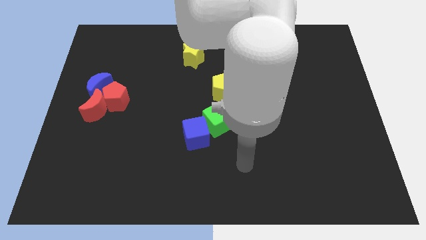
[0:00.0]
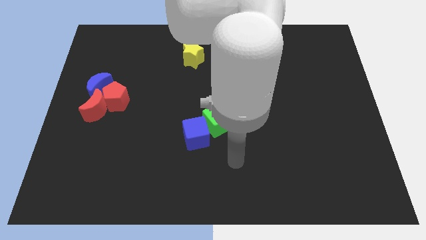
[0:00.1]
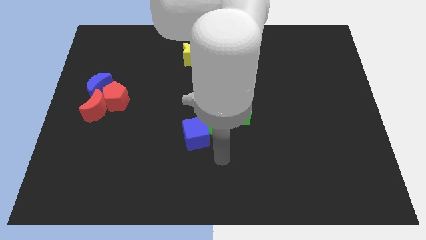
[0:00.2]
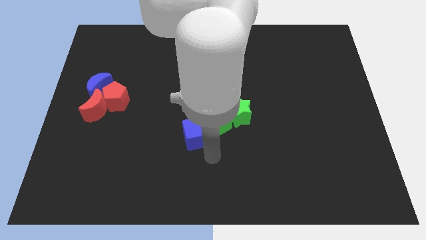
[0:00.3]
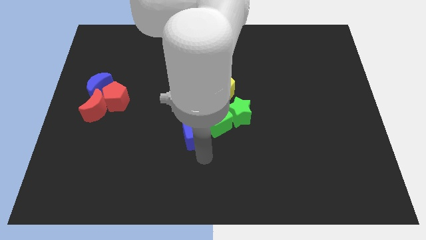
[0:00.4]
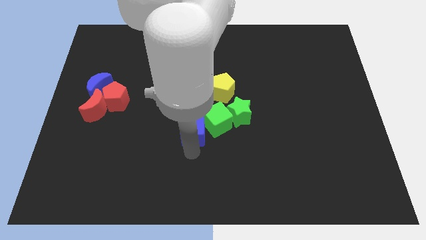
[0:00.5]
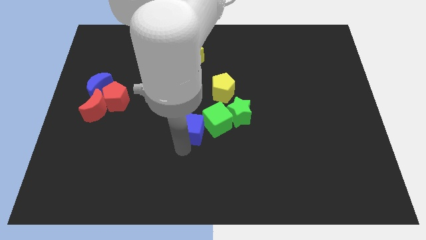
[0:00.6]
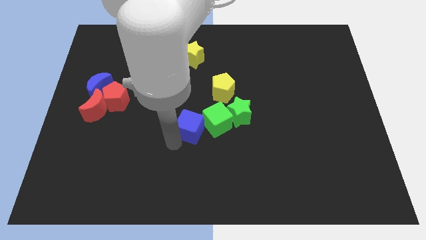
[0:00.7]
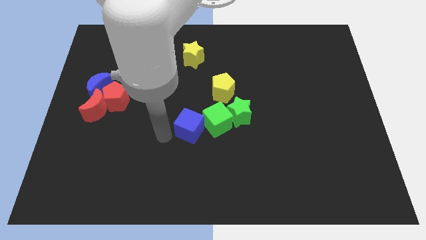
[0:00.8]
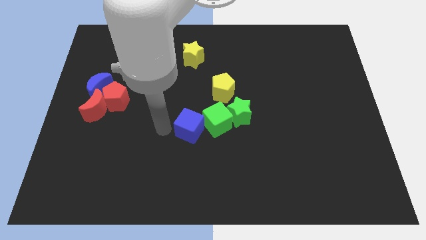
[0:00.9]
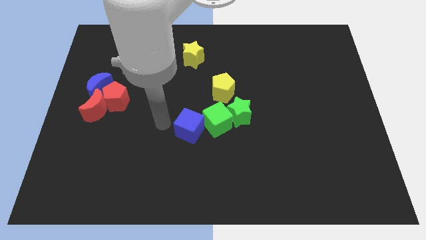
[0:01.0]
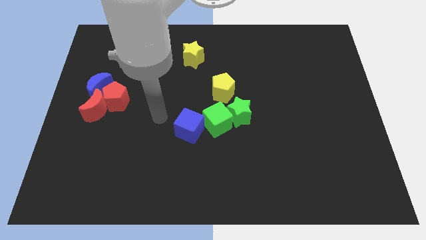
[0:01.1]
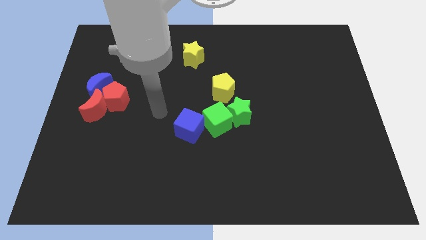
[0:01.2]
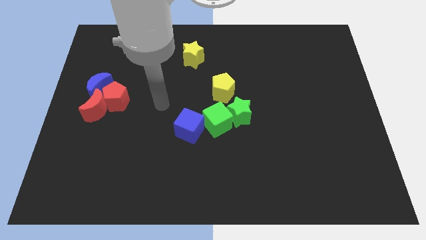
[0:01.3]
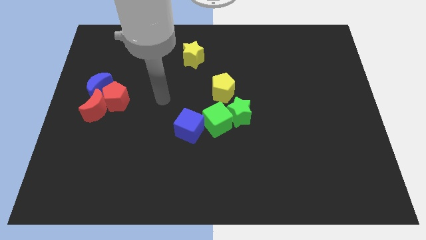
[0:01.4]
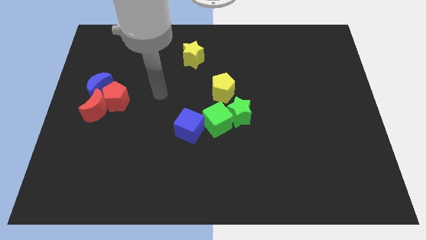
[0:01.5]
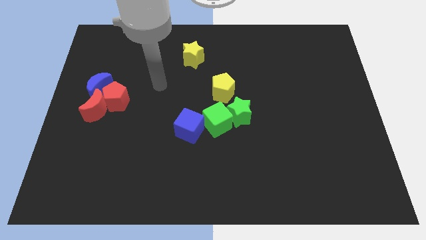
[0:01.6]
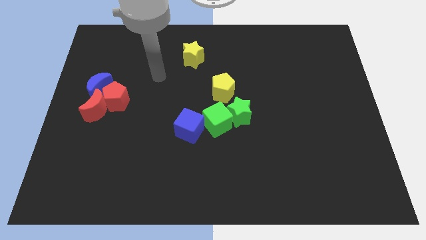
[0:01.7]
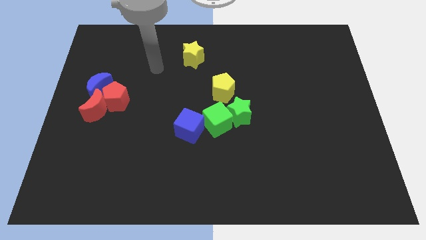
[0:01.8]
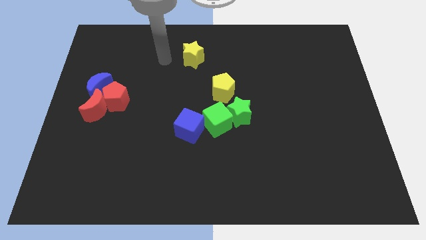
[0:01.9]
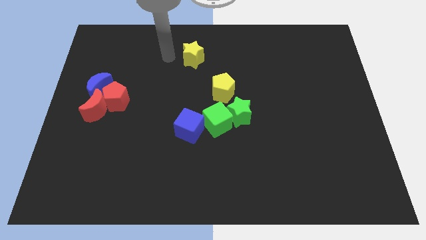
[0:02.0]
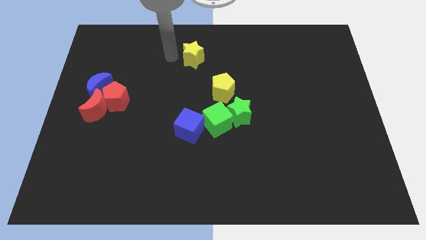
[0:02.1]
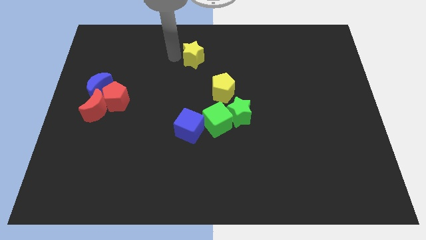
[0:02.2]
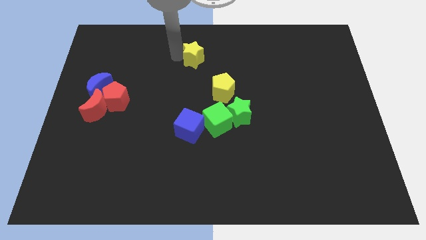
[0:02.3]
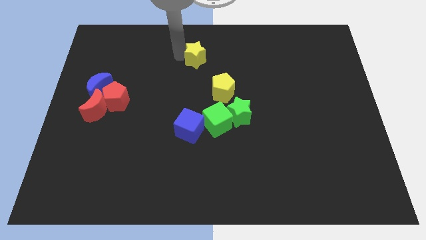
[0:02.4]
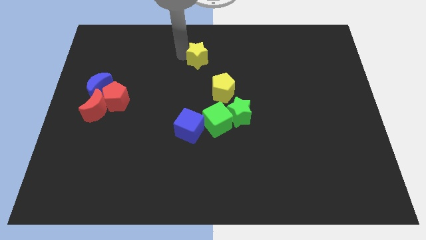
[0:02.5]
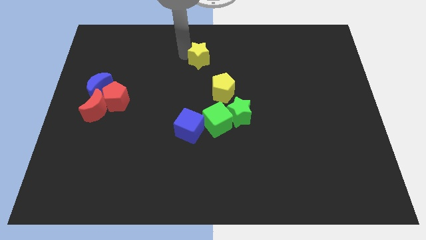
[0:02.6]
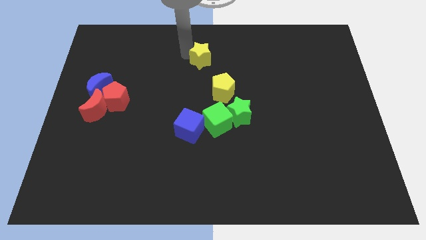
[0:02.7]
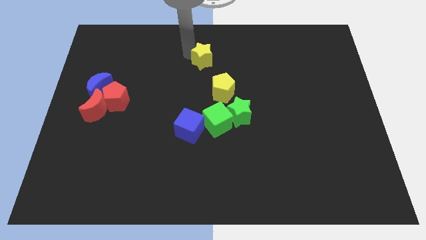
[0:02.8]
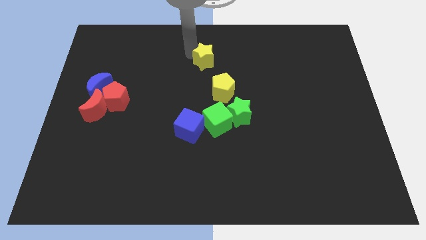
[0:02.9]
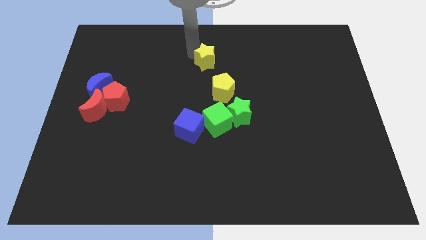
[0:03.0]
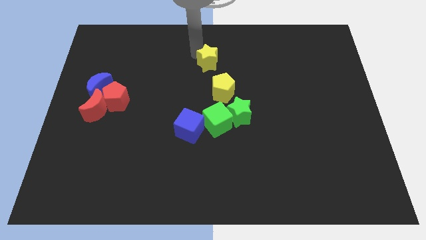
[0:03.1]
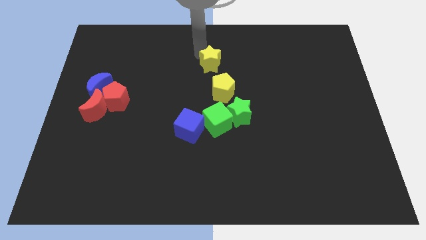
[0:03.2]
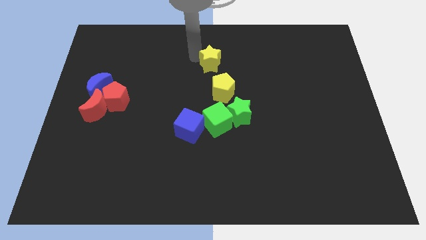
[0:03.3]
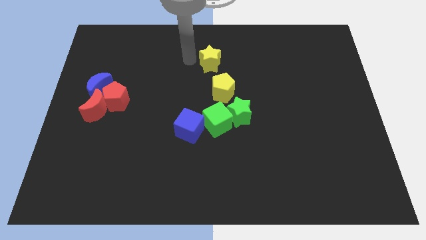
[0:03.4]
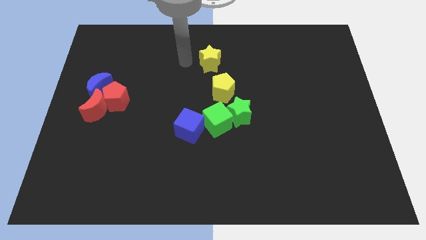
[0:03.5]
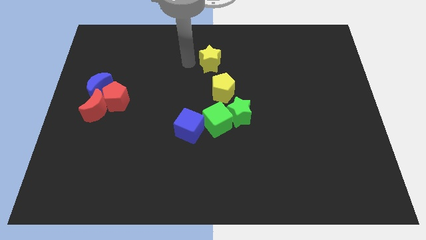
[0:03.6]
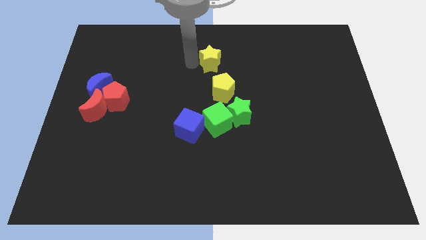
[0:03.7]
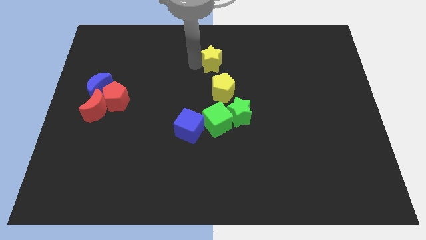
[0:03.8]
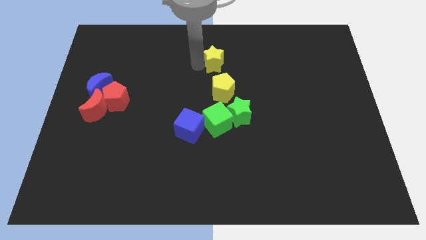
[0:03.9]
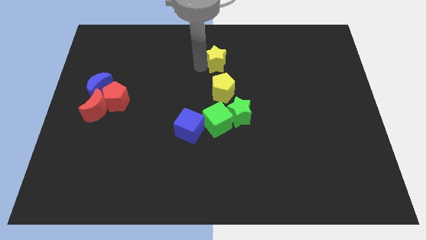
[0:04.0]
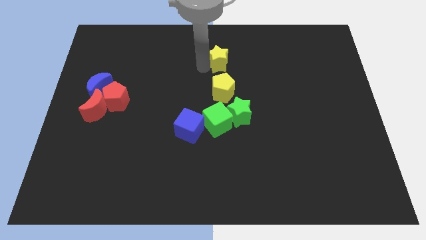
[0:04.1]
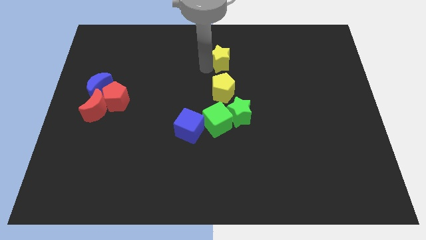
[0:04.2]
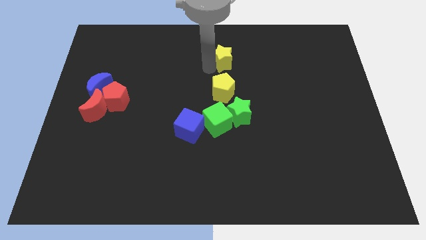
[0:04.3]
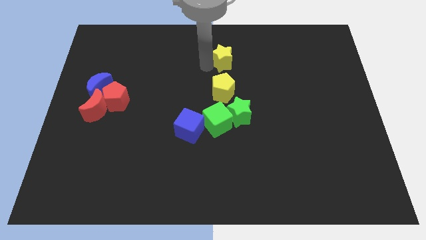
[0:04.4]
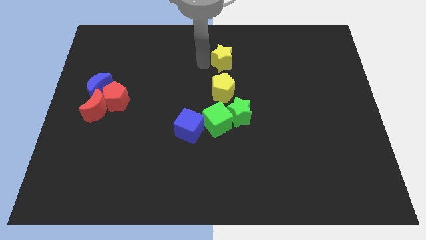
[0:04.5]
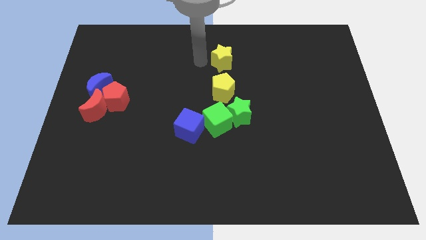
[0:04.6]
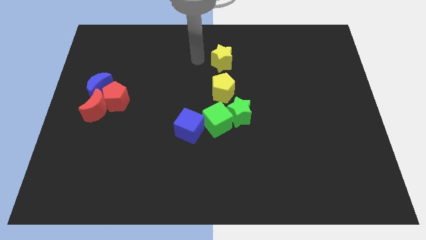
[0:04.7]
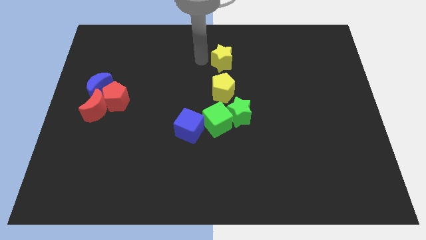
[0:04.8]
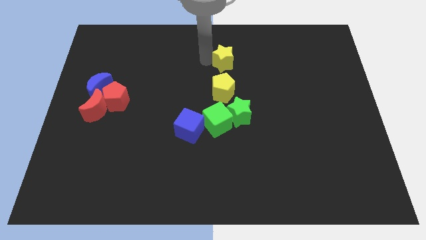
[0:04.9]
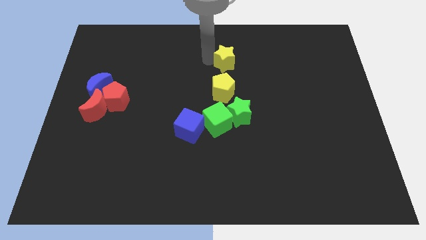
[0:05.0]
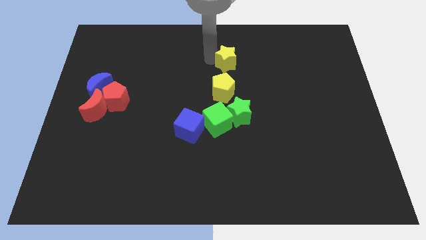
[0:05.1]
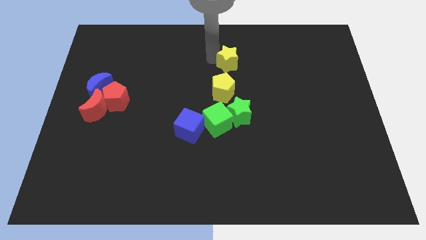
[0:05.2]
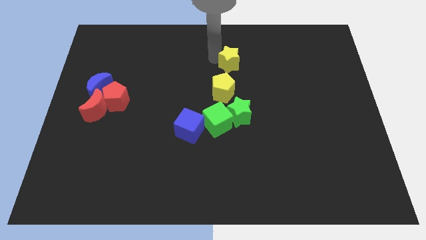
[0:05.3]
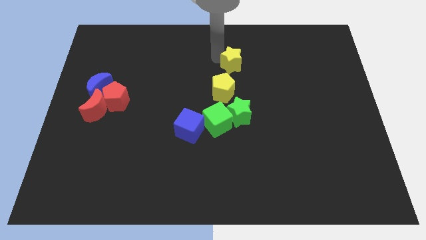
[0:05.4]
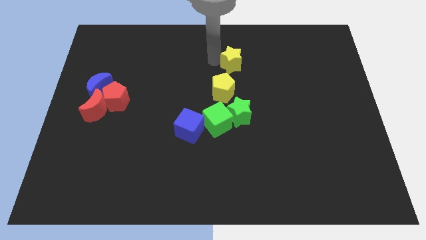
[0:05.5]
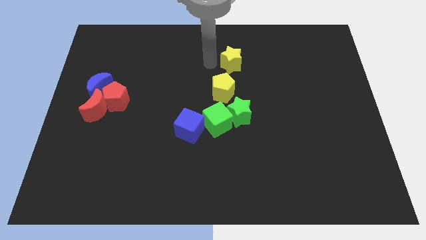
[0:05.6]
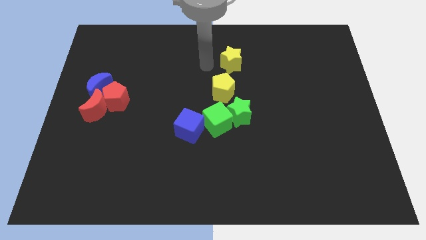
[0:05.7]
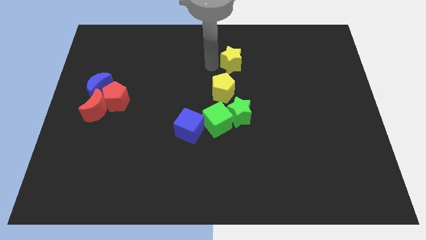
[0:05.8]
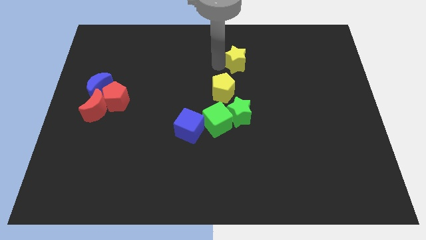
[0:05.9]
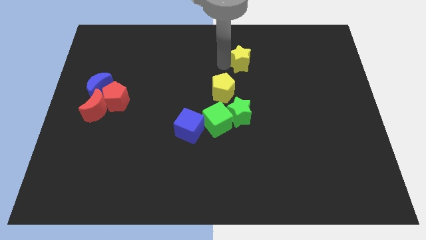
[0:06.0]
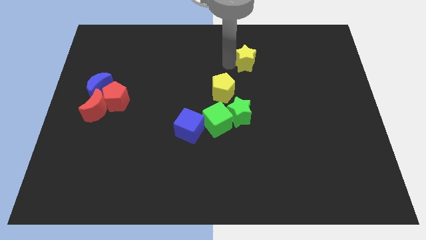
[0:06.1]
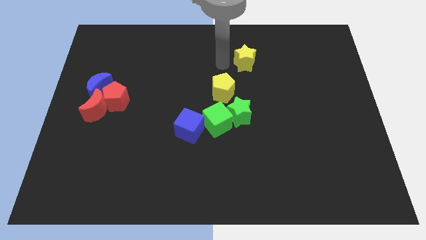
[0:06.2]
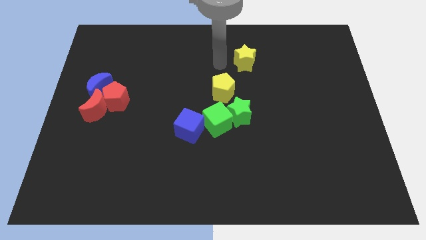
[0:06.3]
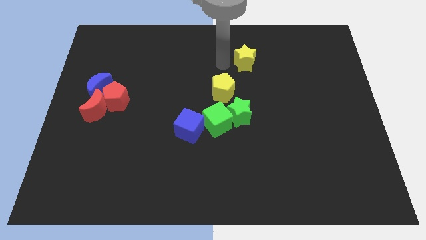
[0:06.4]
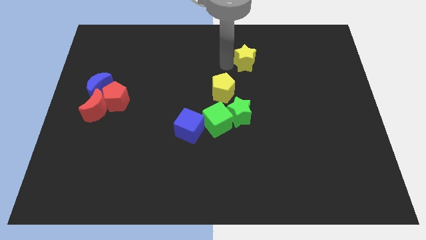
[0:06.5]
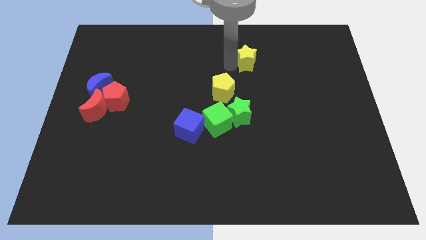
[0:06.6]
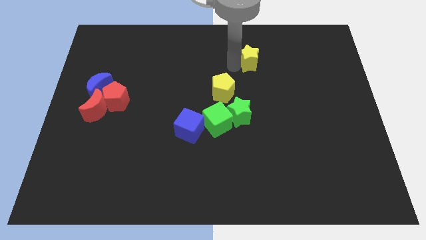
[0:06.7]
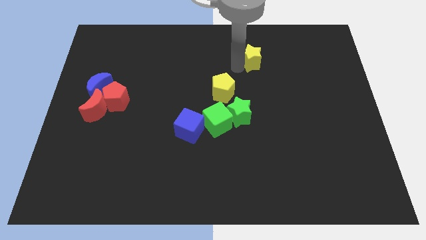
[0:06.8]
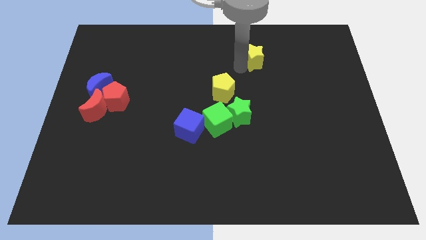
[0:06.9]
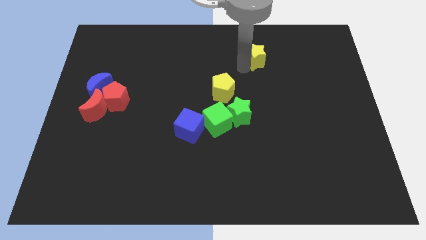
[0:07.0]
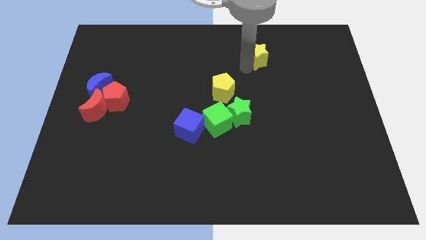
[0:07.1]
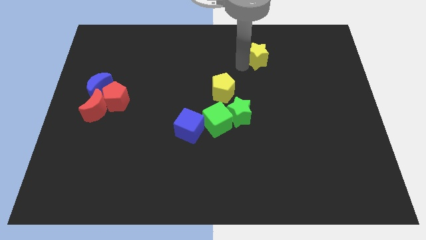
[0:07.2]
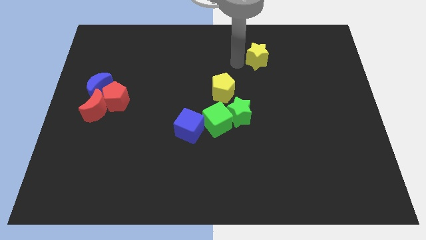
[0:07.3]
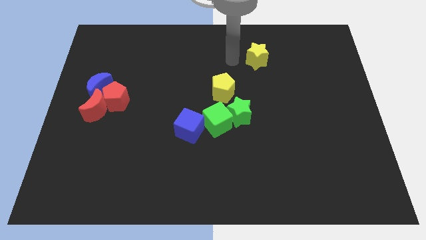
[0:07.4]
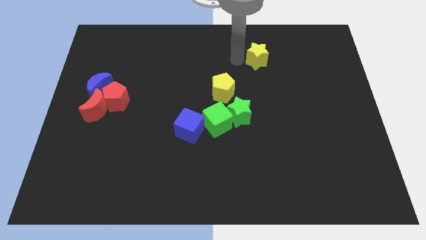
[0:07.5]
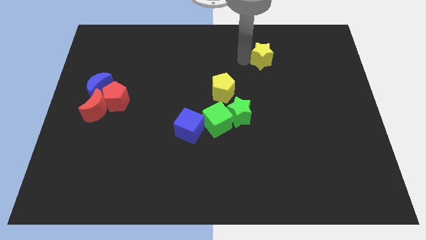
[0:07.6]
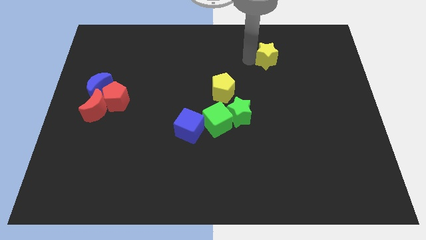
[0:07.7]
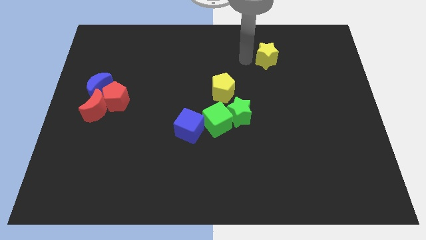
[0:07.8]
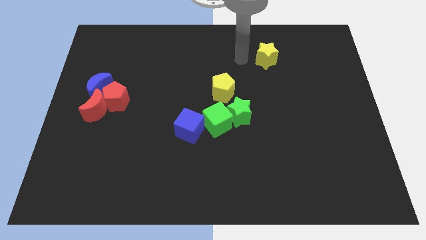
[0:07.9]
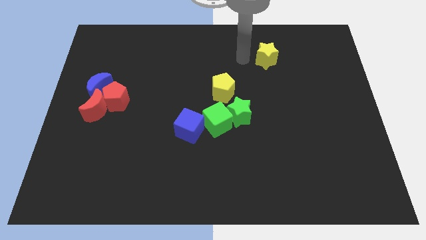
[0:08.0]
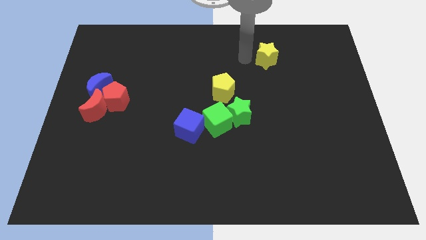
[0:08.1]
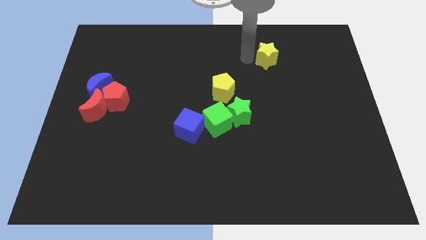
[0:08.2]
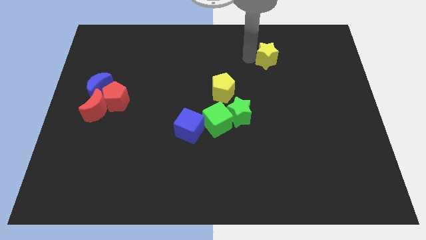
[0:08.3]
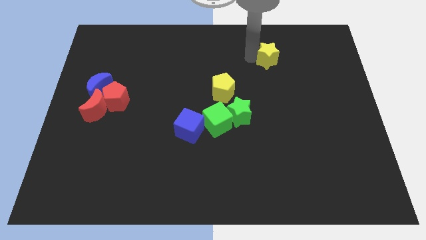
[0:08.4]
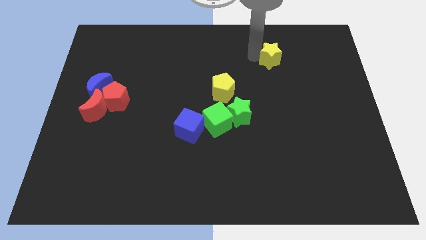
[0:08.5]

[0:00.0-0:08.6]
push the yellow star to the right
